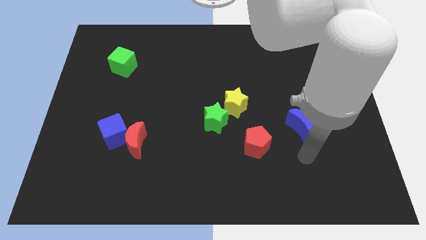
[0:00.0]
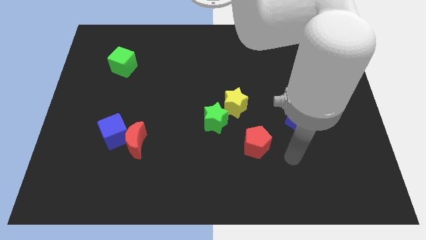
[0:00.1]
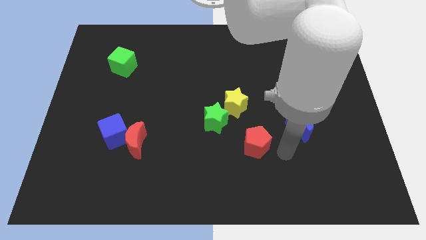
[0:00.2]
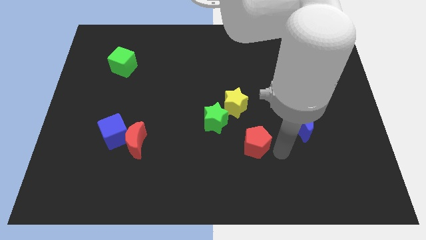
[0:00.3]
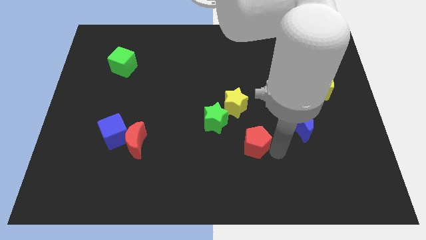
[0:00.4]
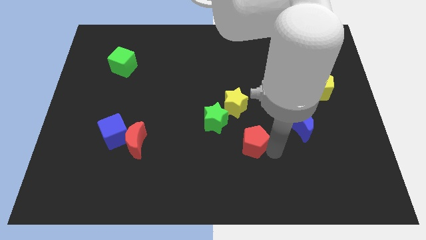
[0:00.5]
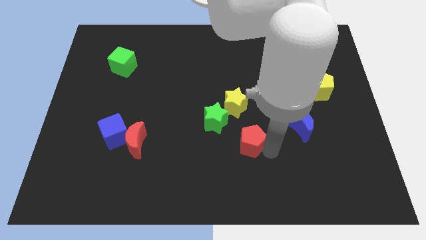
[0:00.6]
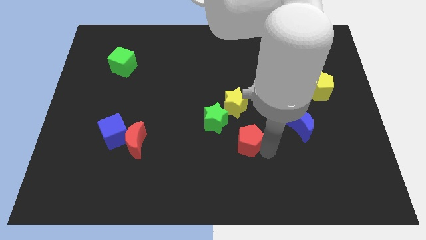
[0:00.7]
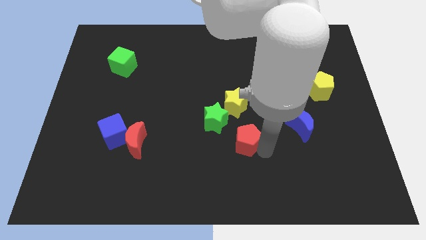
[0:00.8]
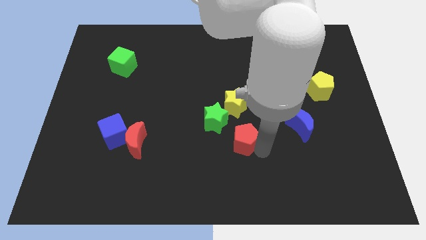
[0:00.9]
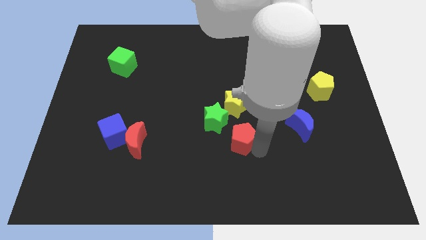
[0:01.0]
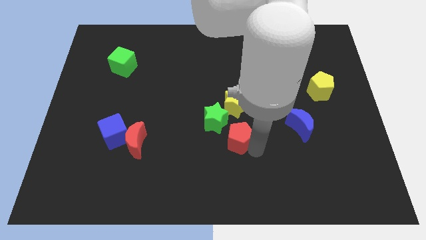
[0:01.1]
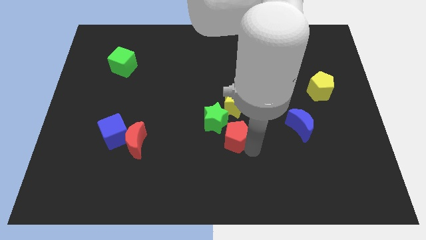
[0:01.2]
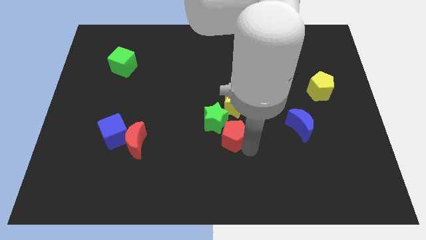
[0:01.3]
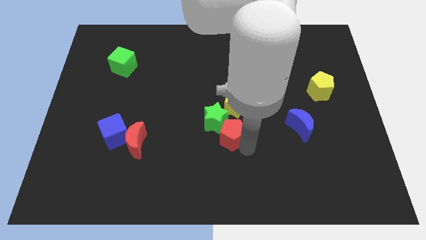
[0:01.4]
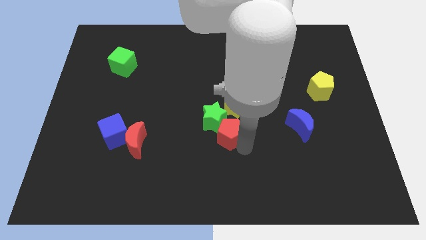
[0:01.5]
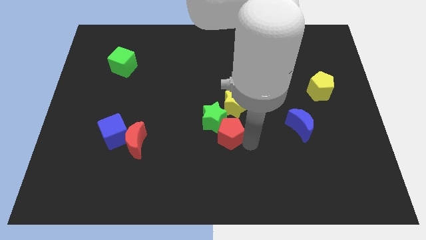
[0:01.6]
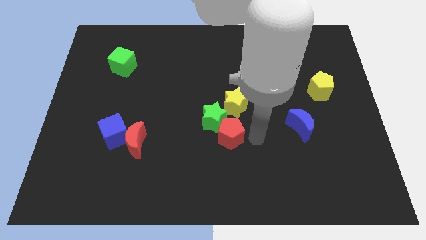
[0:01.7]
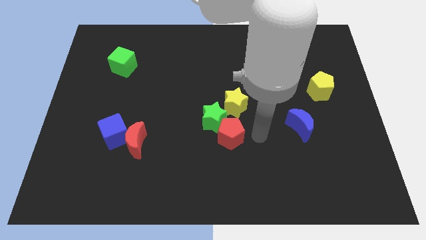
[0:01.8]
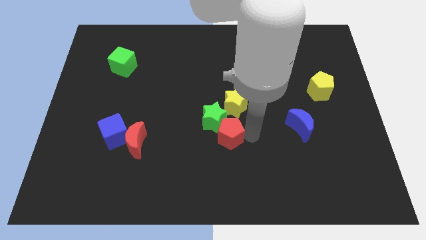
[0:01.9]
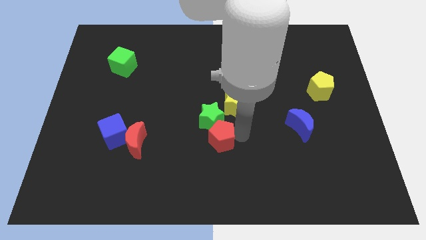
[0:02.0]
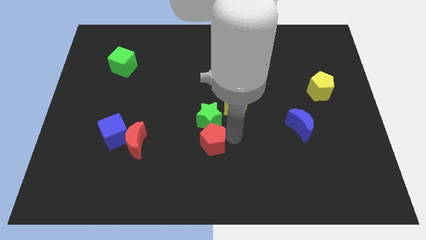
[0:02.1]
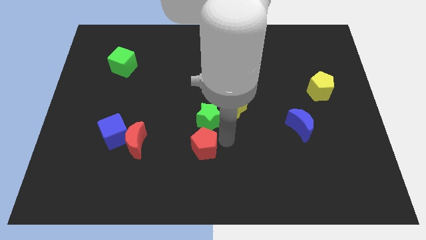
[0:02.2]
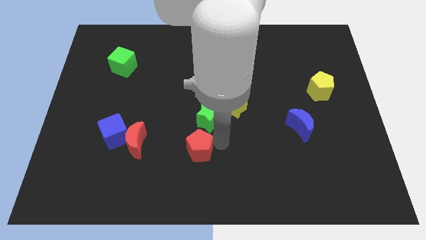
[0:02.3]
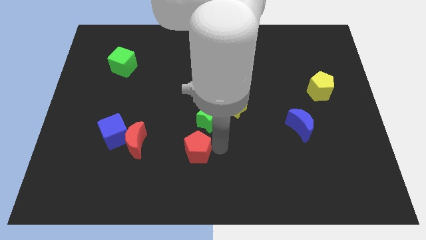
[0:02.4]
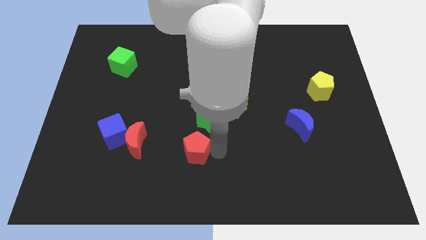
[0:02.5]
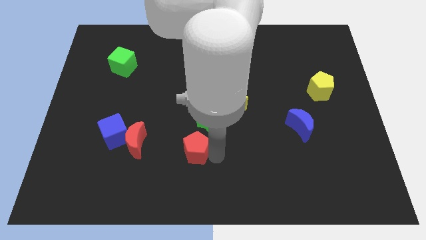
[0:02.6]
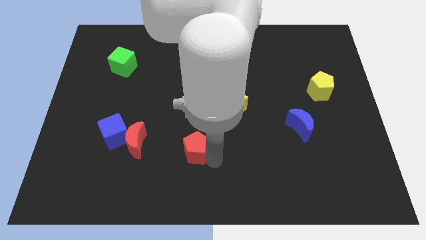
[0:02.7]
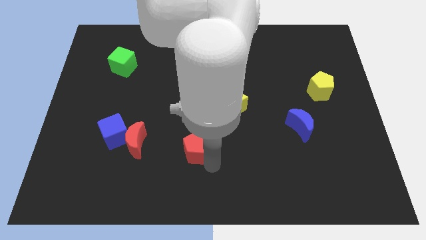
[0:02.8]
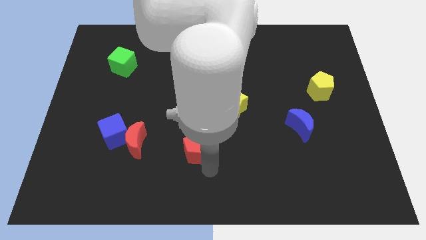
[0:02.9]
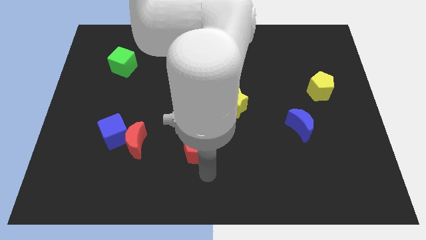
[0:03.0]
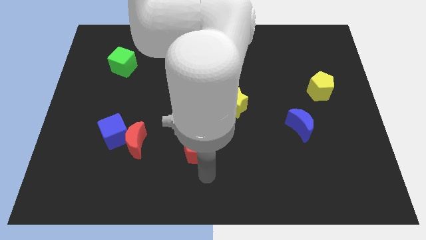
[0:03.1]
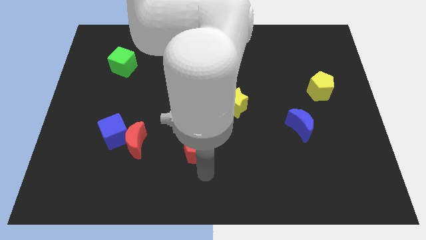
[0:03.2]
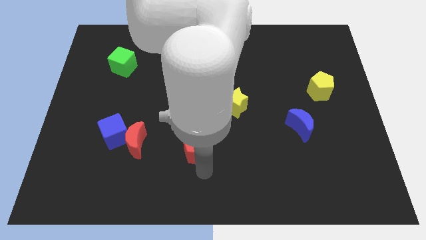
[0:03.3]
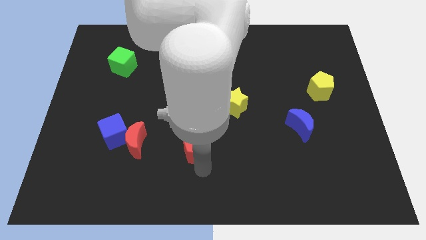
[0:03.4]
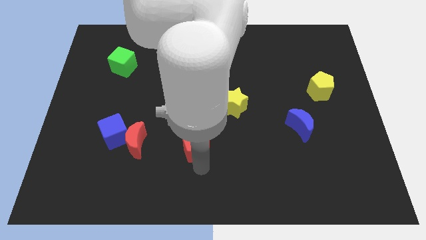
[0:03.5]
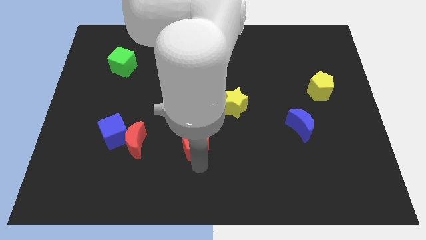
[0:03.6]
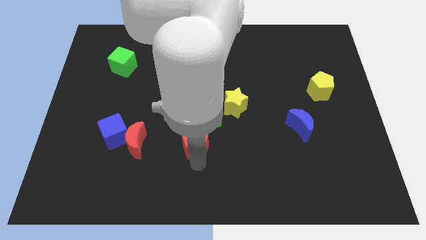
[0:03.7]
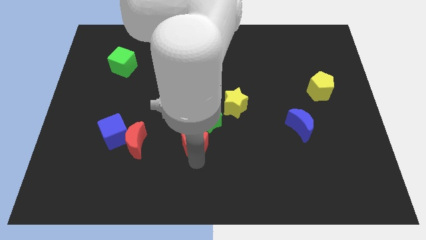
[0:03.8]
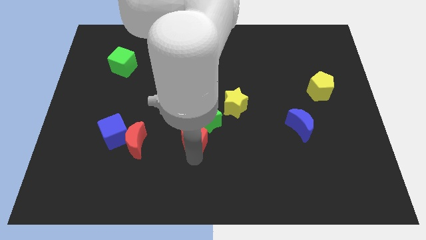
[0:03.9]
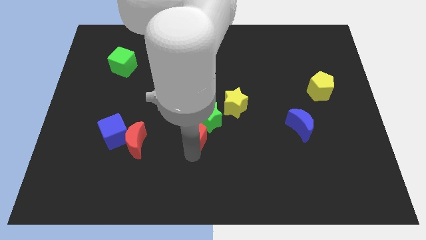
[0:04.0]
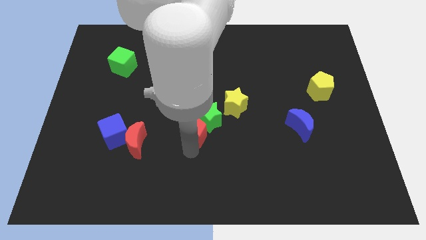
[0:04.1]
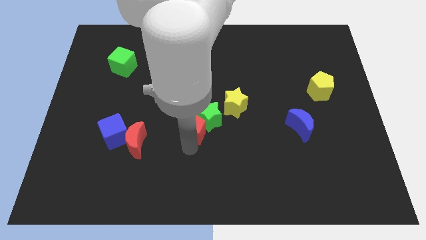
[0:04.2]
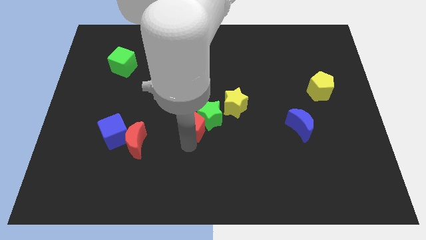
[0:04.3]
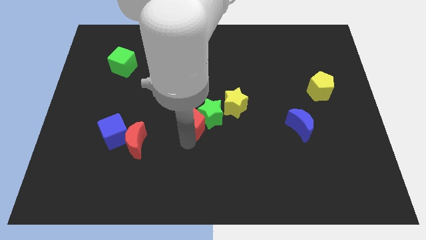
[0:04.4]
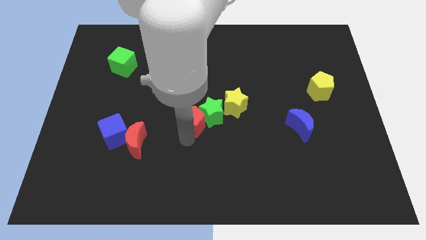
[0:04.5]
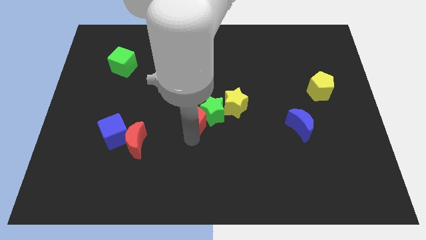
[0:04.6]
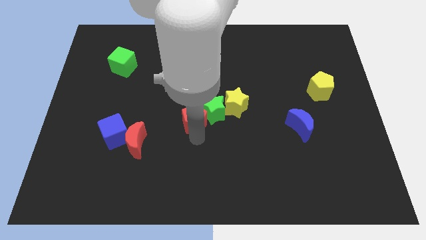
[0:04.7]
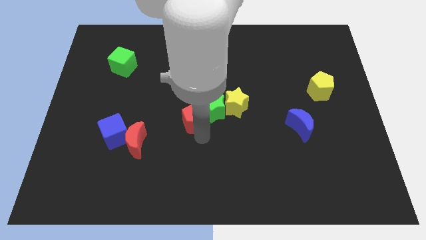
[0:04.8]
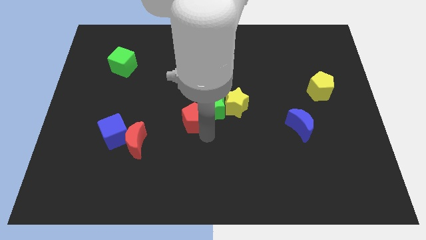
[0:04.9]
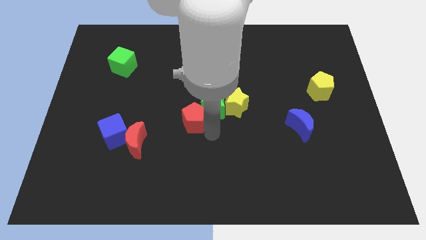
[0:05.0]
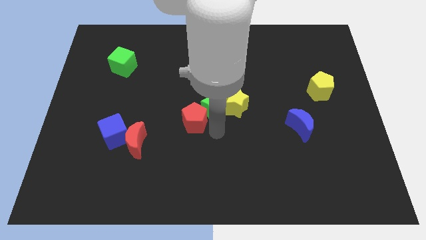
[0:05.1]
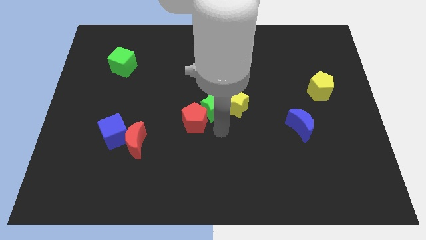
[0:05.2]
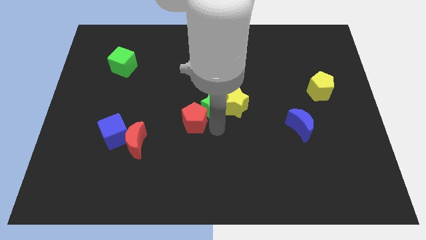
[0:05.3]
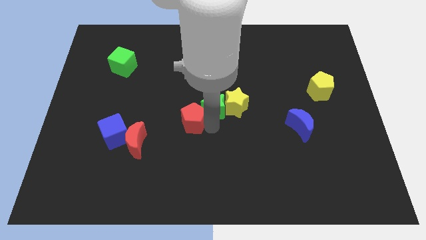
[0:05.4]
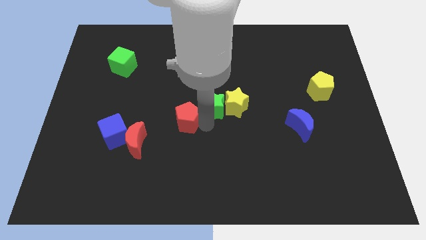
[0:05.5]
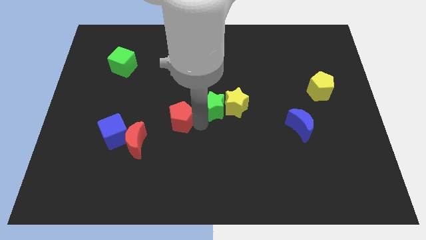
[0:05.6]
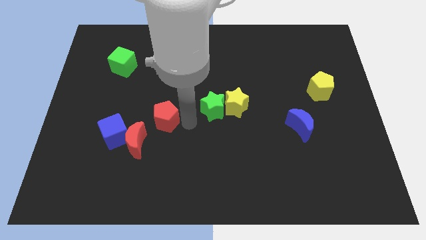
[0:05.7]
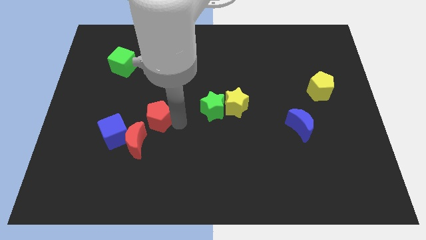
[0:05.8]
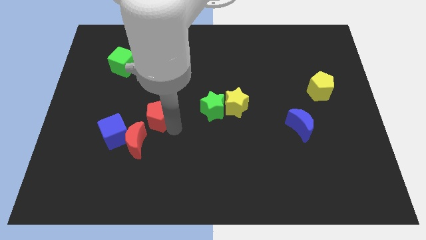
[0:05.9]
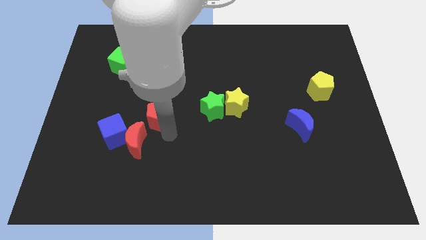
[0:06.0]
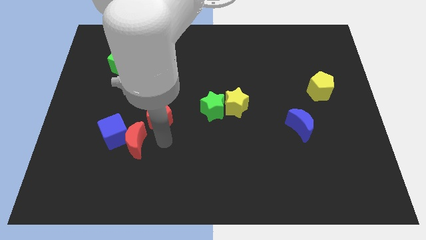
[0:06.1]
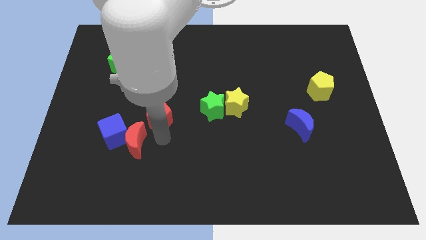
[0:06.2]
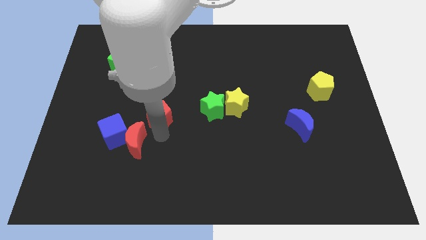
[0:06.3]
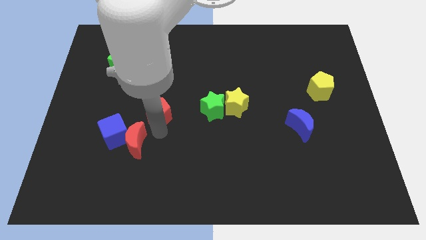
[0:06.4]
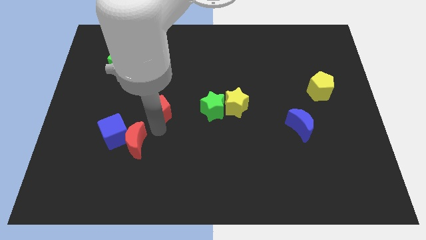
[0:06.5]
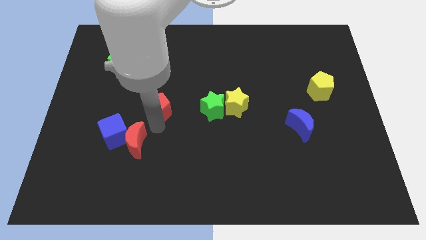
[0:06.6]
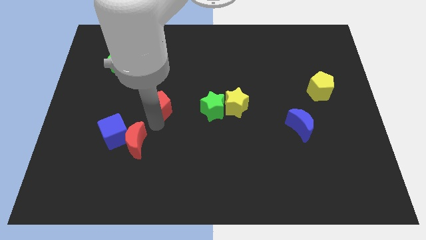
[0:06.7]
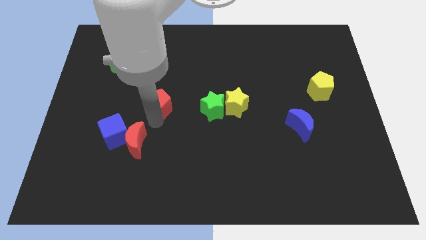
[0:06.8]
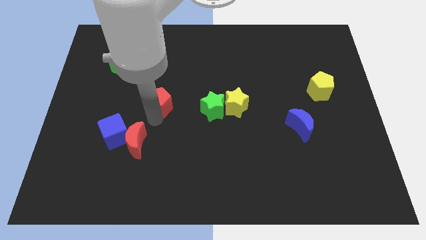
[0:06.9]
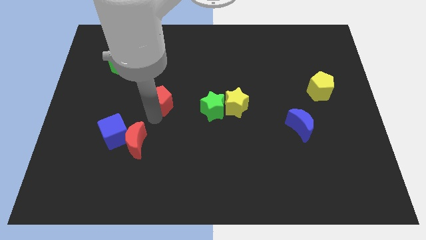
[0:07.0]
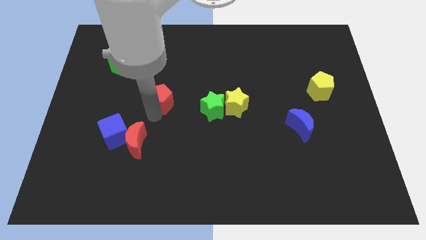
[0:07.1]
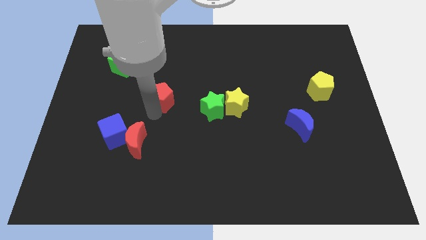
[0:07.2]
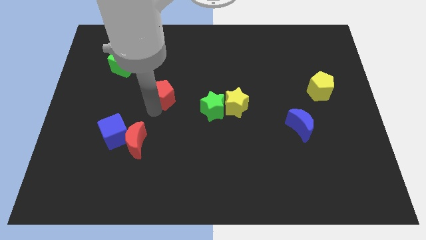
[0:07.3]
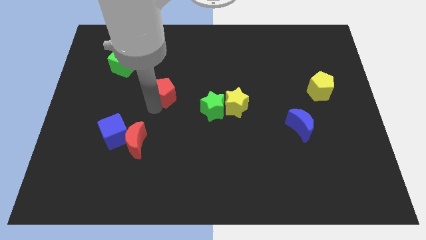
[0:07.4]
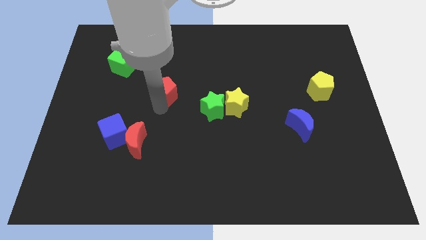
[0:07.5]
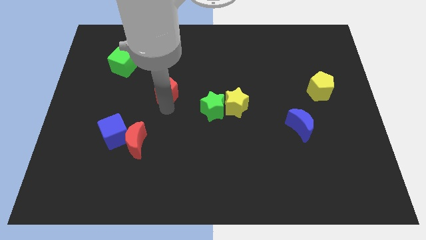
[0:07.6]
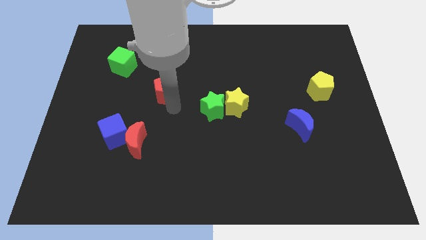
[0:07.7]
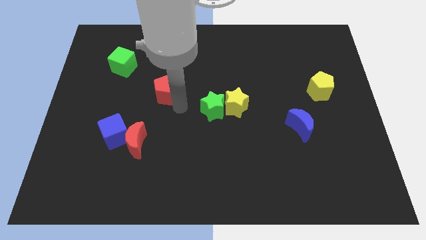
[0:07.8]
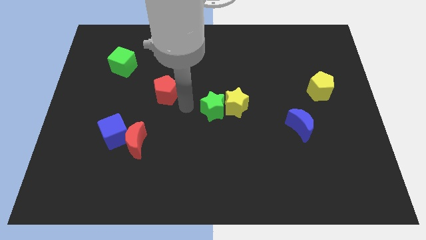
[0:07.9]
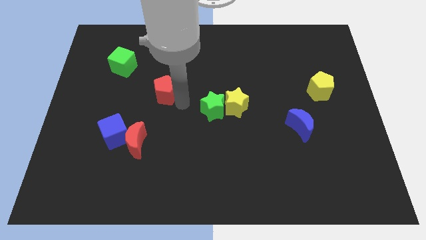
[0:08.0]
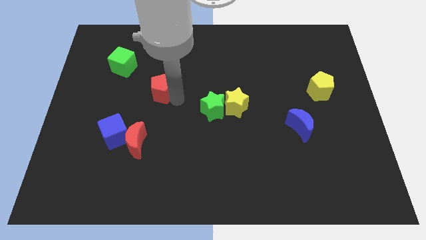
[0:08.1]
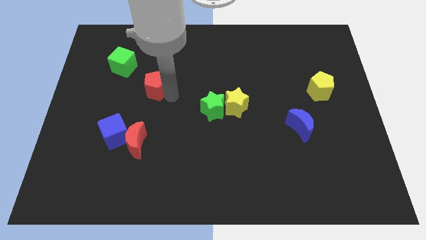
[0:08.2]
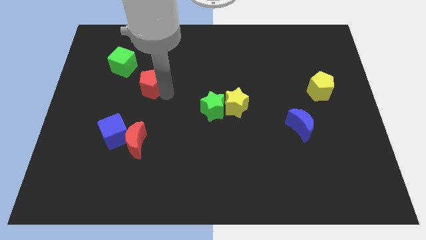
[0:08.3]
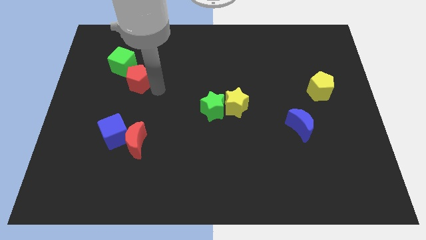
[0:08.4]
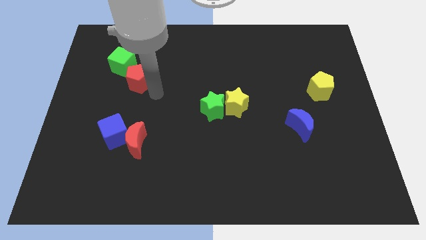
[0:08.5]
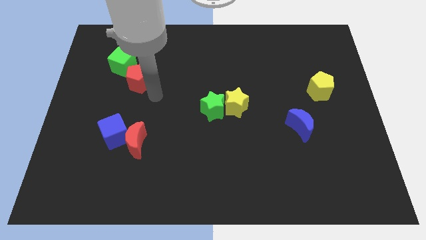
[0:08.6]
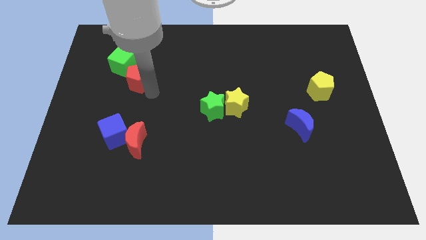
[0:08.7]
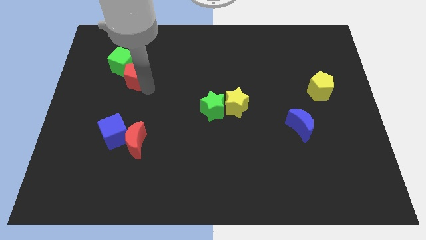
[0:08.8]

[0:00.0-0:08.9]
put the red pentagon to the green cube
